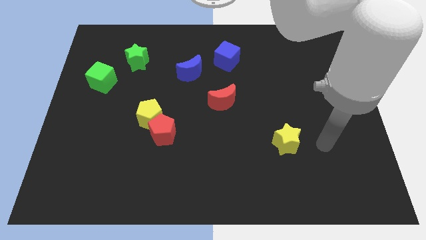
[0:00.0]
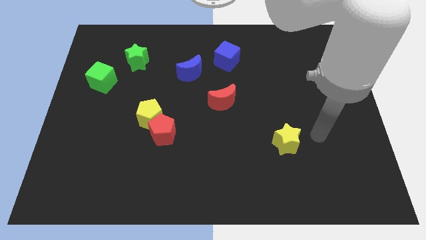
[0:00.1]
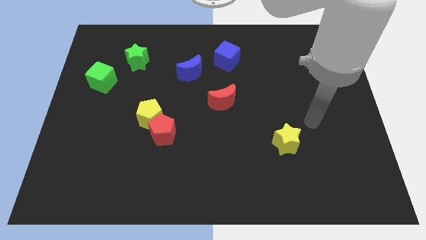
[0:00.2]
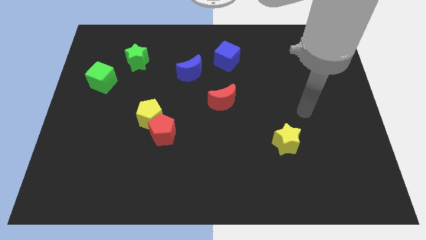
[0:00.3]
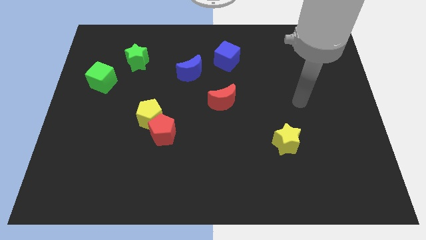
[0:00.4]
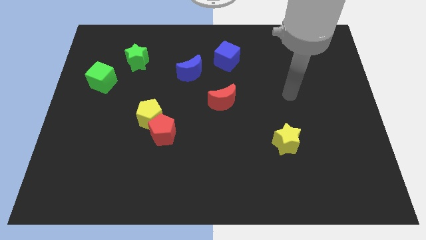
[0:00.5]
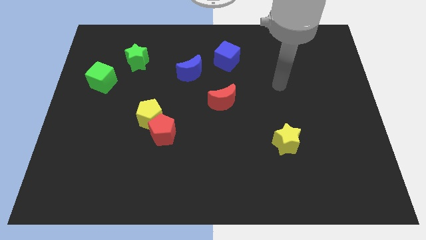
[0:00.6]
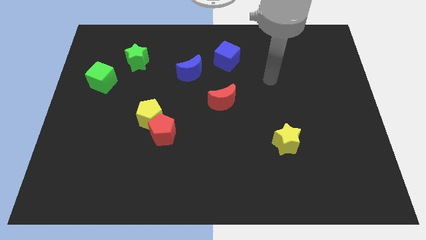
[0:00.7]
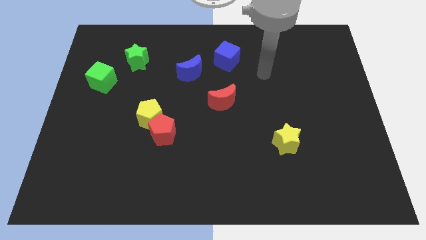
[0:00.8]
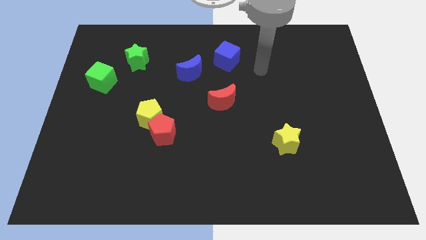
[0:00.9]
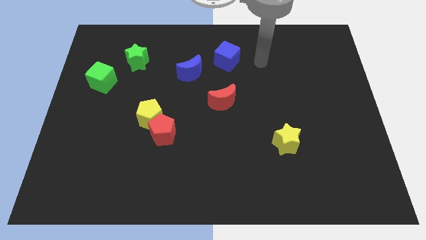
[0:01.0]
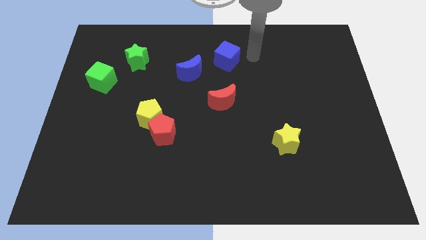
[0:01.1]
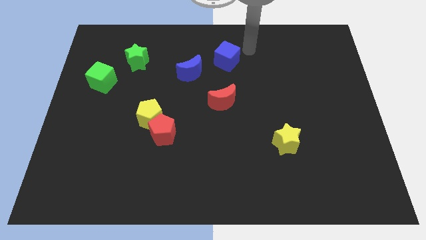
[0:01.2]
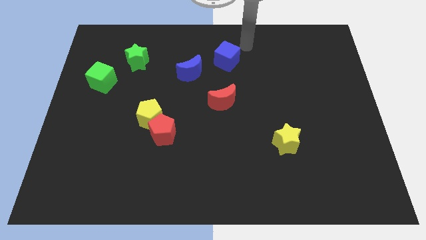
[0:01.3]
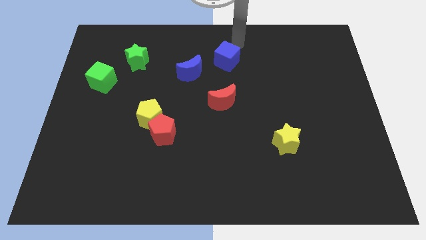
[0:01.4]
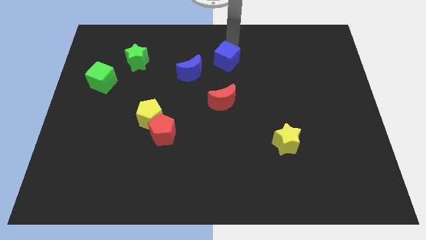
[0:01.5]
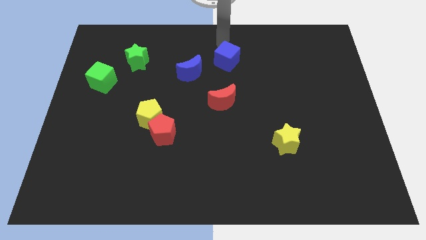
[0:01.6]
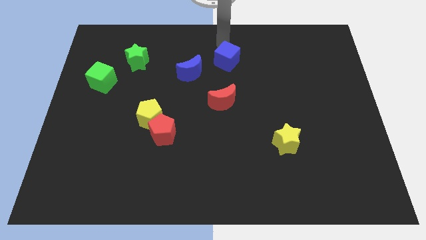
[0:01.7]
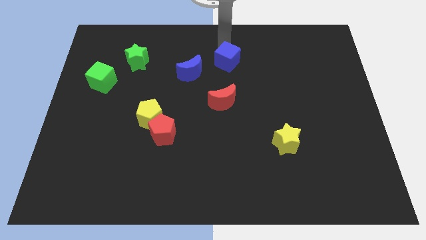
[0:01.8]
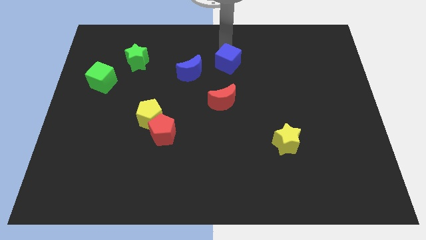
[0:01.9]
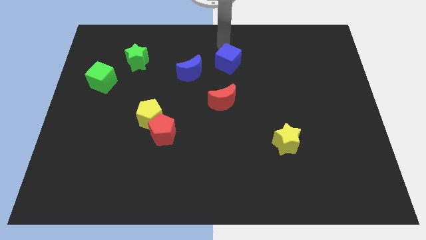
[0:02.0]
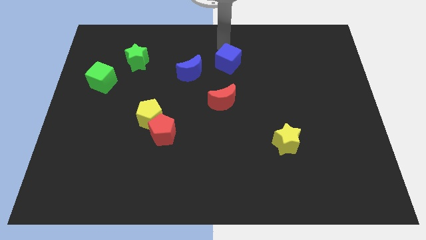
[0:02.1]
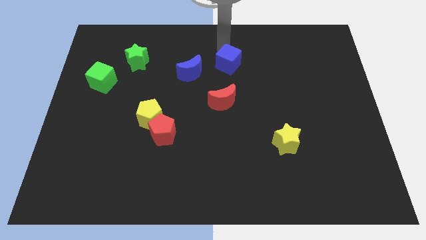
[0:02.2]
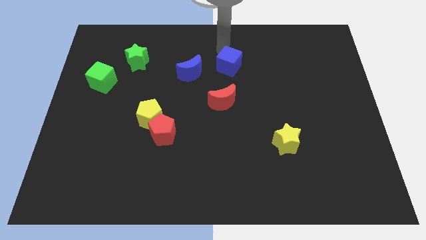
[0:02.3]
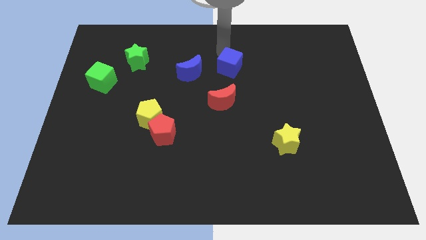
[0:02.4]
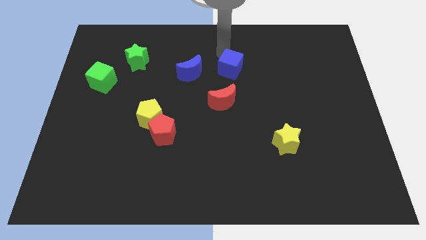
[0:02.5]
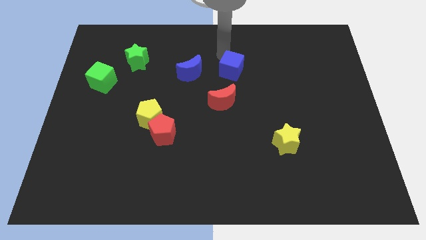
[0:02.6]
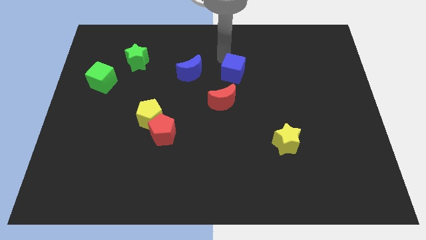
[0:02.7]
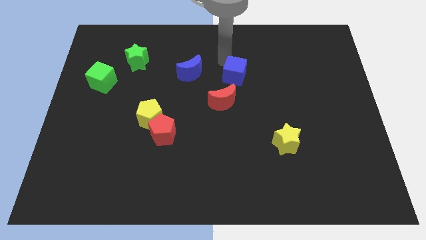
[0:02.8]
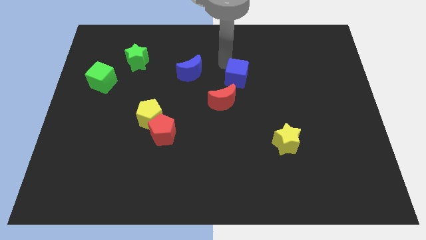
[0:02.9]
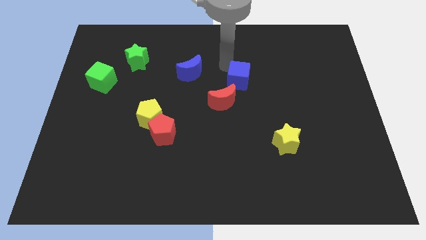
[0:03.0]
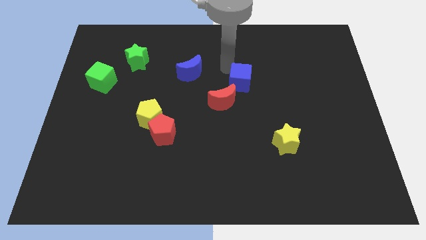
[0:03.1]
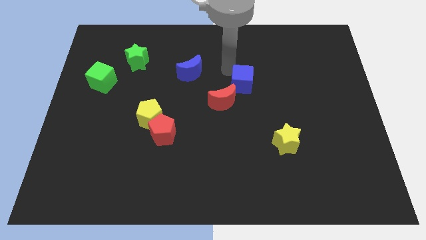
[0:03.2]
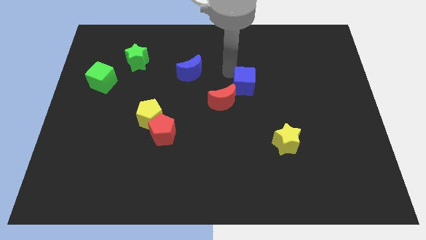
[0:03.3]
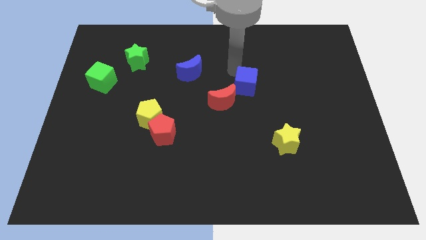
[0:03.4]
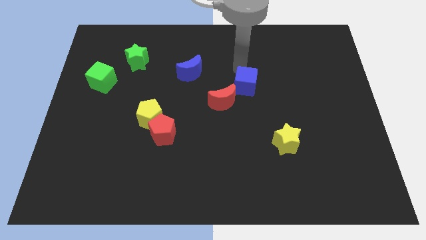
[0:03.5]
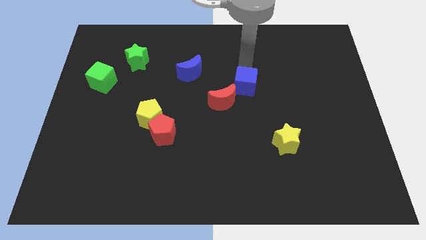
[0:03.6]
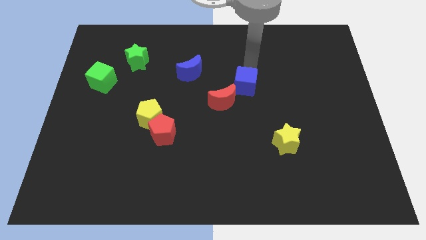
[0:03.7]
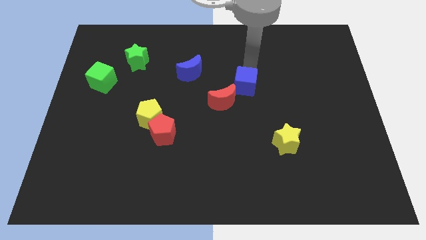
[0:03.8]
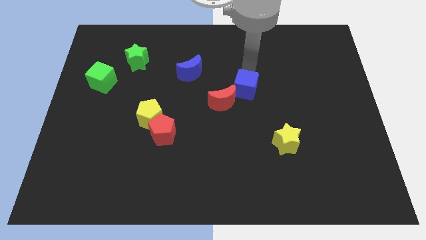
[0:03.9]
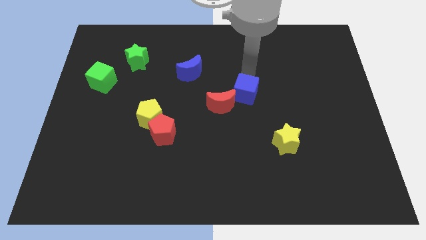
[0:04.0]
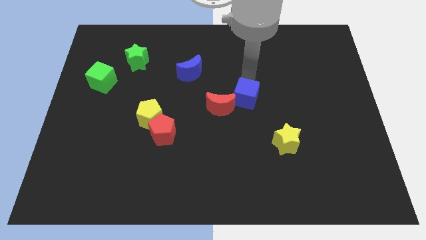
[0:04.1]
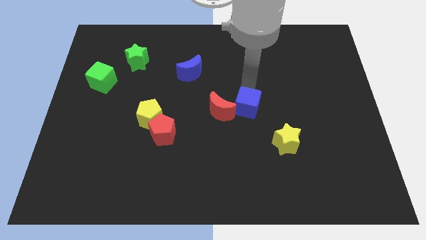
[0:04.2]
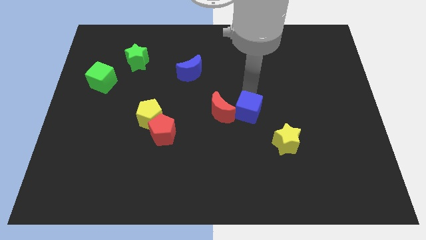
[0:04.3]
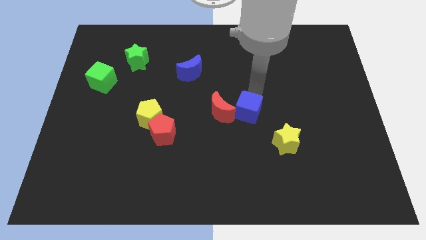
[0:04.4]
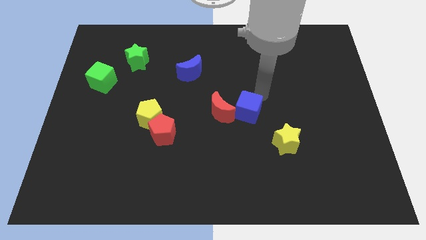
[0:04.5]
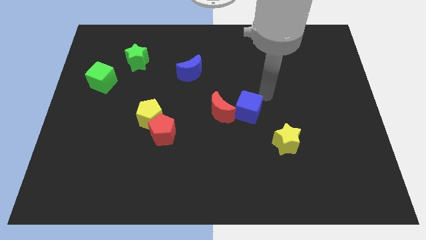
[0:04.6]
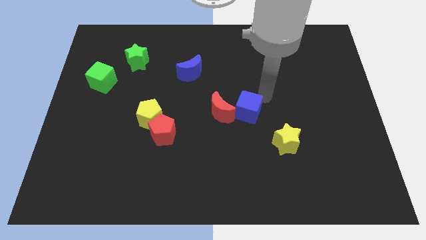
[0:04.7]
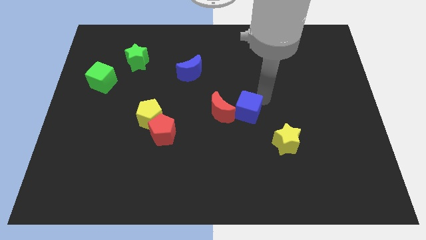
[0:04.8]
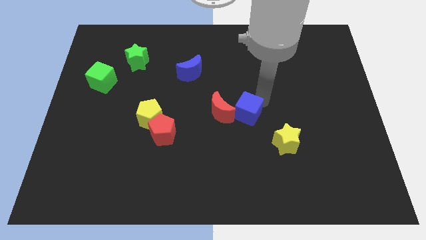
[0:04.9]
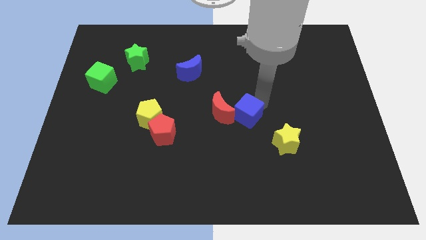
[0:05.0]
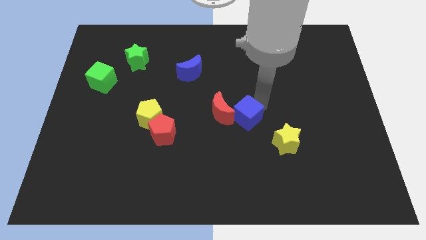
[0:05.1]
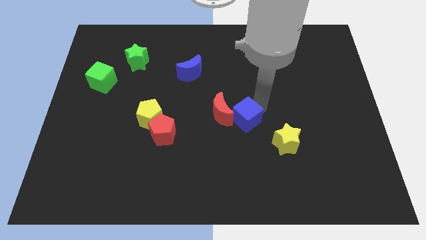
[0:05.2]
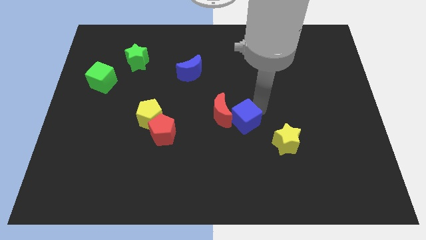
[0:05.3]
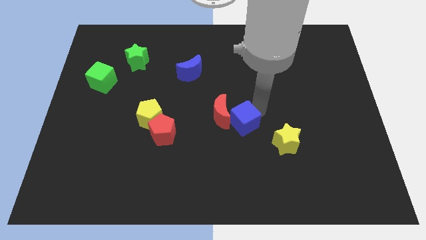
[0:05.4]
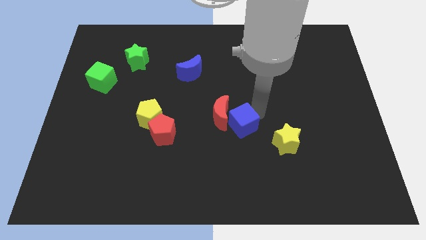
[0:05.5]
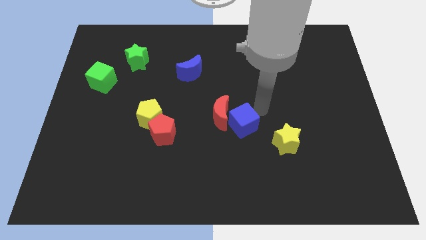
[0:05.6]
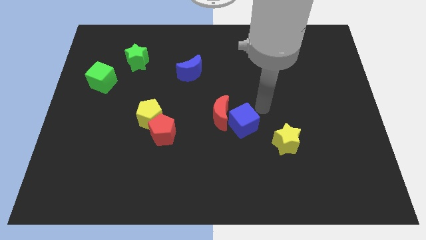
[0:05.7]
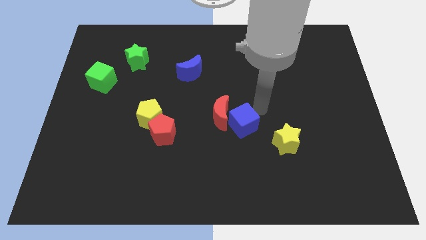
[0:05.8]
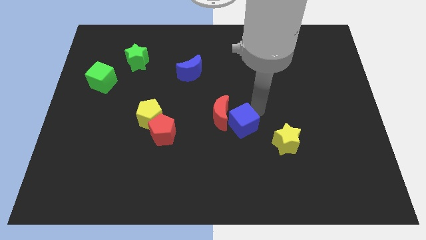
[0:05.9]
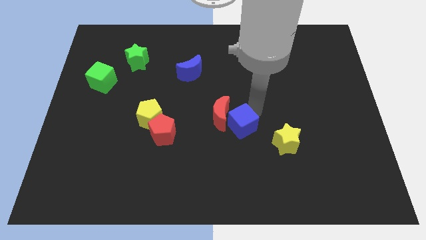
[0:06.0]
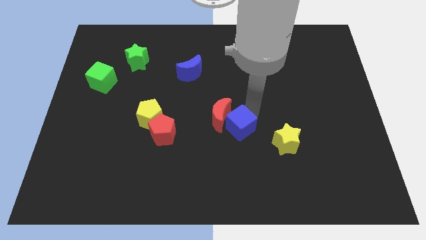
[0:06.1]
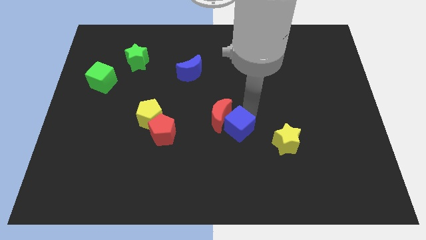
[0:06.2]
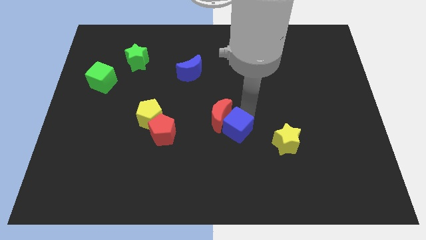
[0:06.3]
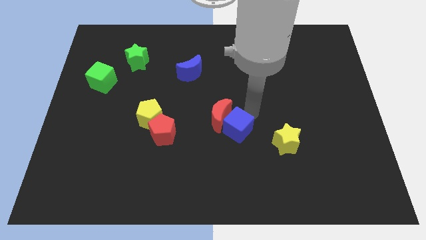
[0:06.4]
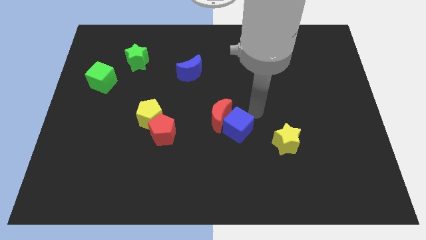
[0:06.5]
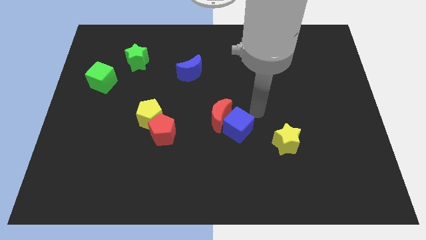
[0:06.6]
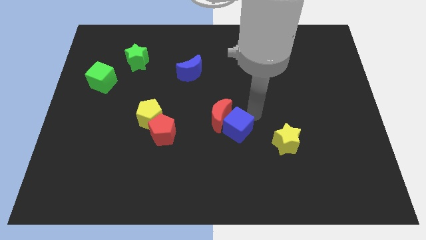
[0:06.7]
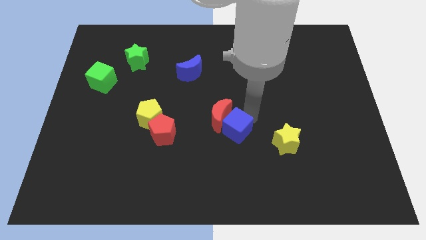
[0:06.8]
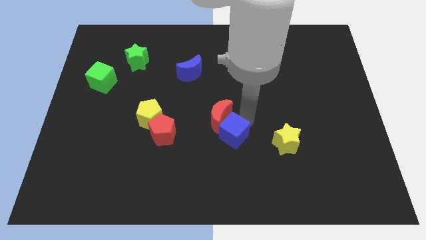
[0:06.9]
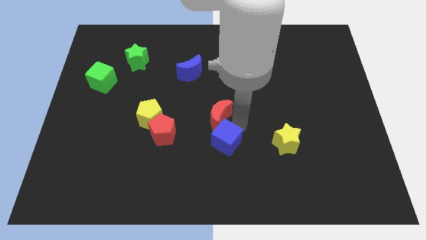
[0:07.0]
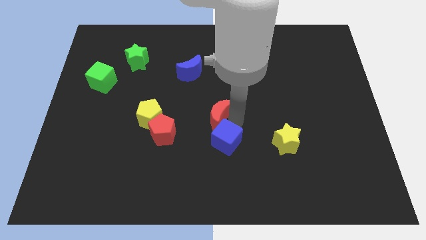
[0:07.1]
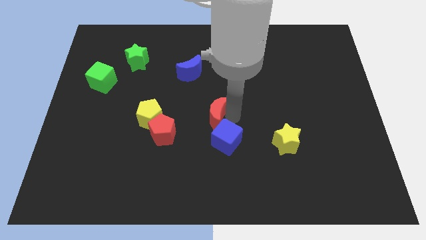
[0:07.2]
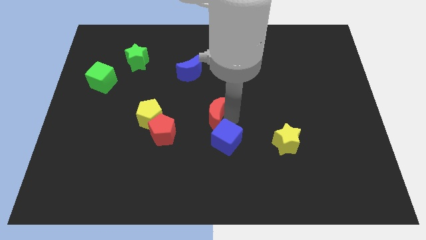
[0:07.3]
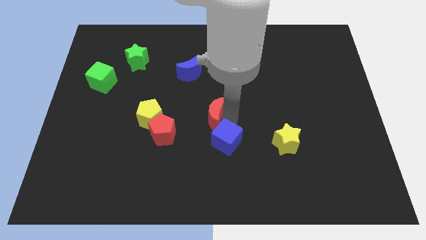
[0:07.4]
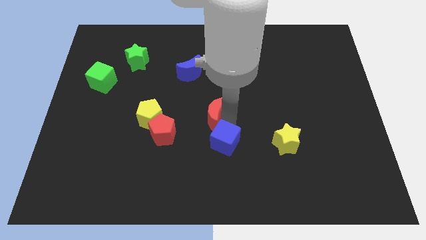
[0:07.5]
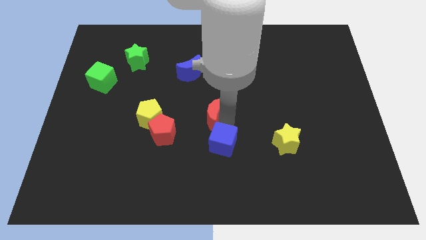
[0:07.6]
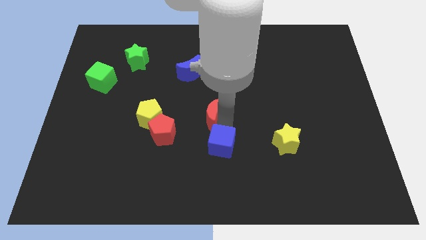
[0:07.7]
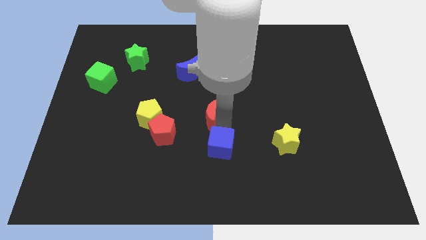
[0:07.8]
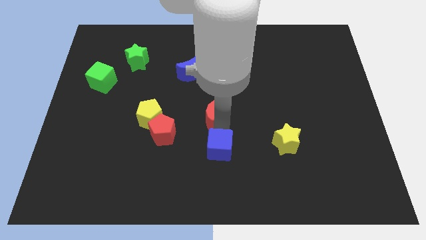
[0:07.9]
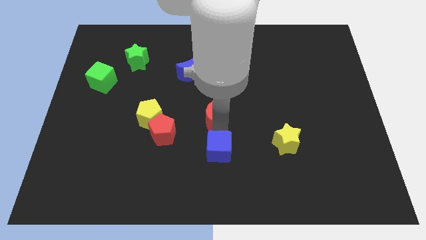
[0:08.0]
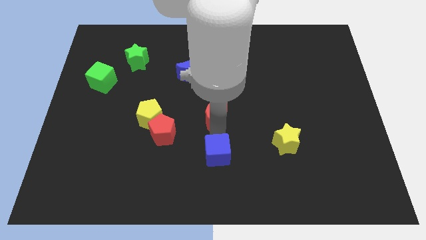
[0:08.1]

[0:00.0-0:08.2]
move the blue cube to the bottom side
